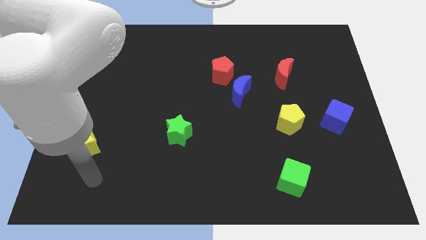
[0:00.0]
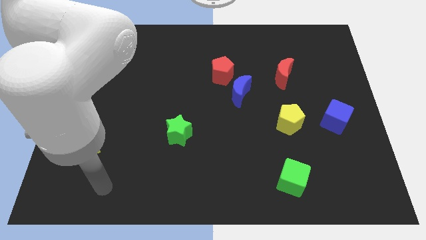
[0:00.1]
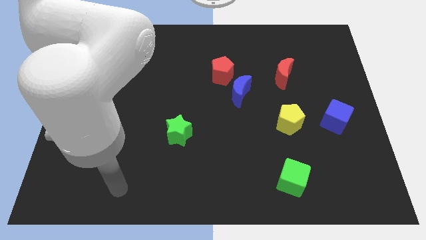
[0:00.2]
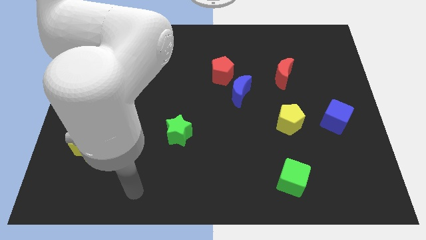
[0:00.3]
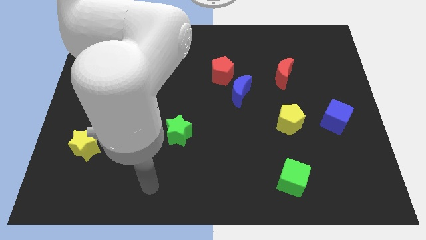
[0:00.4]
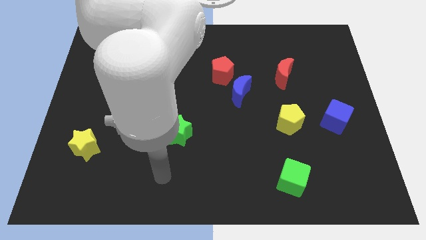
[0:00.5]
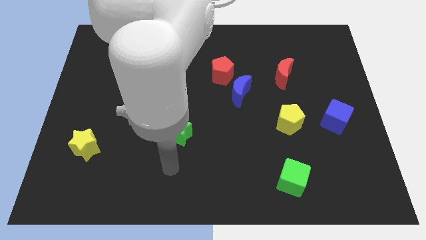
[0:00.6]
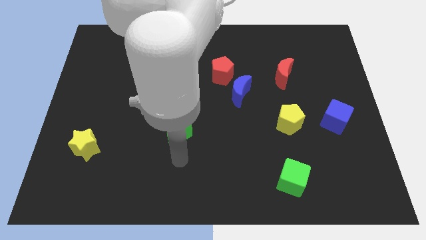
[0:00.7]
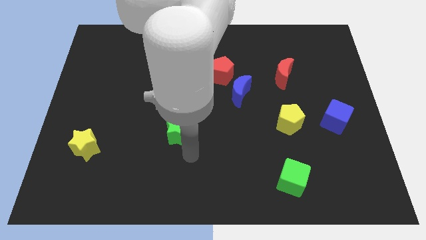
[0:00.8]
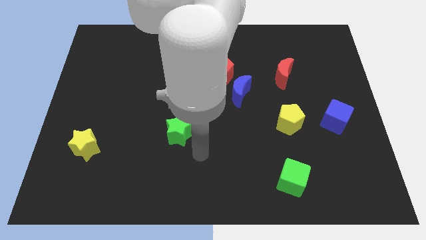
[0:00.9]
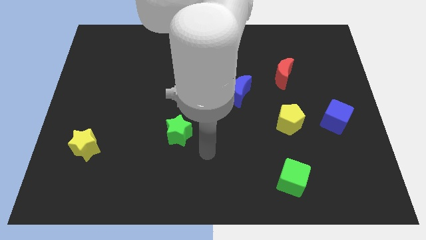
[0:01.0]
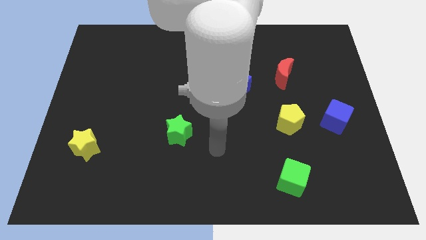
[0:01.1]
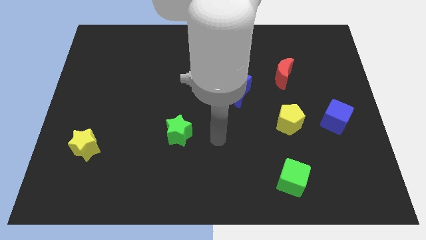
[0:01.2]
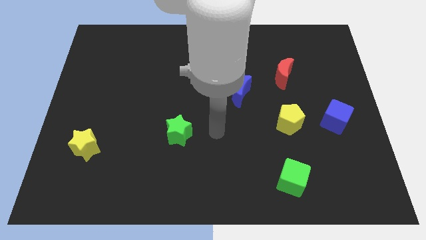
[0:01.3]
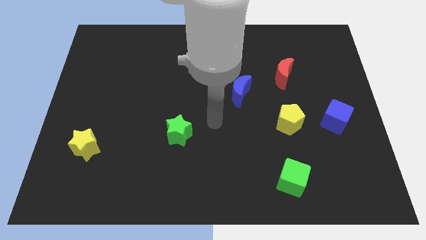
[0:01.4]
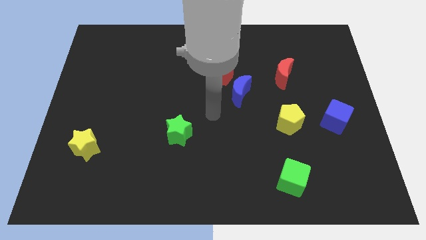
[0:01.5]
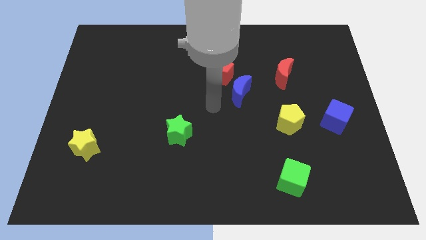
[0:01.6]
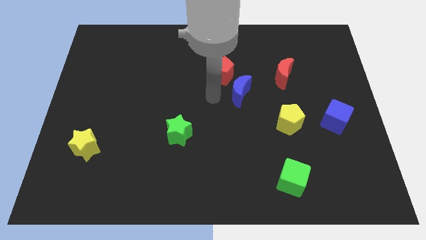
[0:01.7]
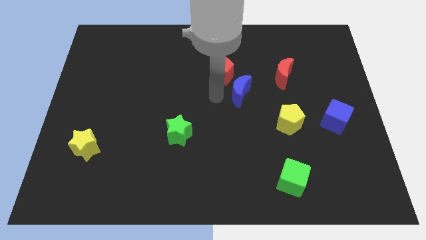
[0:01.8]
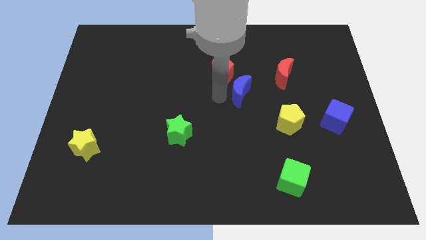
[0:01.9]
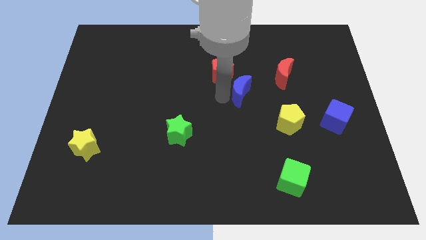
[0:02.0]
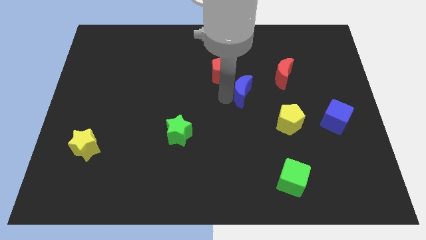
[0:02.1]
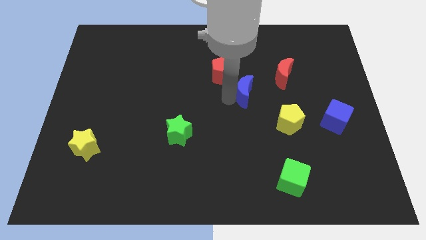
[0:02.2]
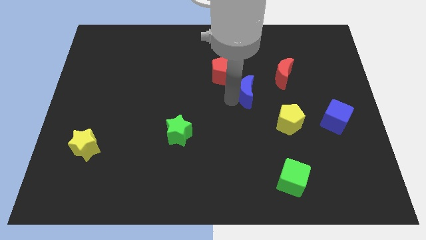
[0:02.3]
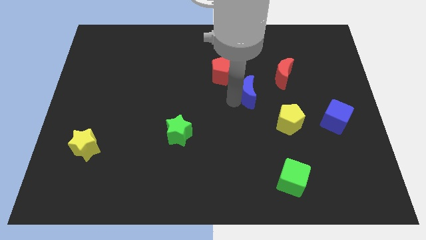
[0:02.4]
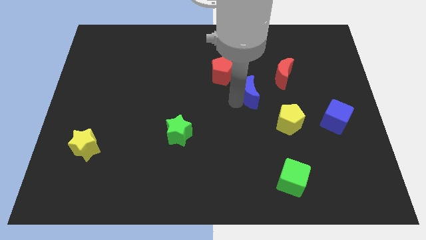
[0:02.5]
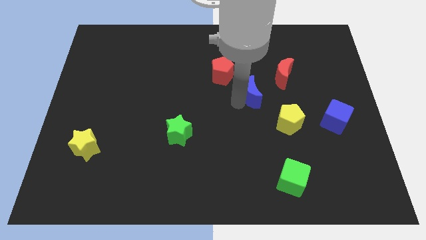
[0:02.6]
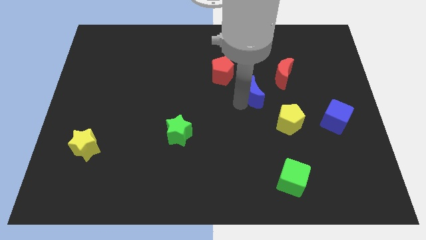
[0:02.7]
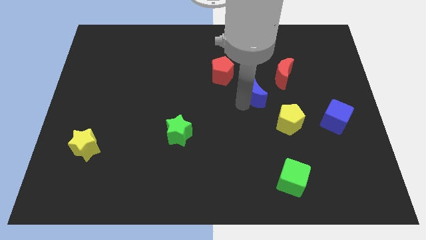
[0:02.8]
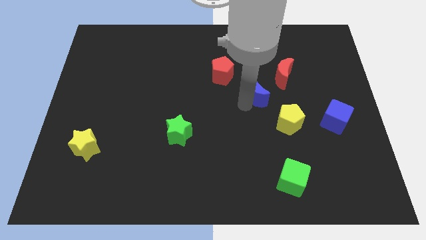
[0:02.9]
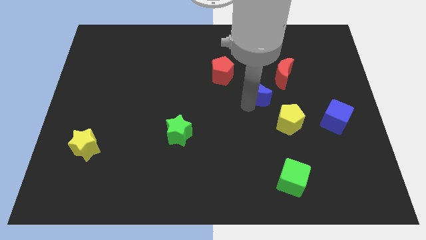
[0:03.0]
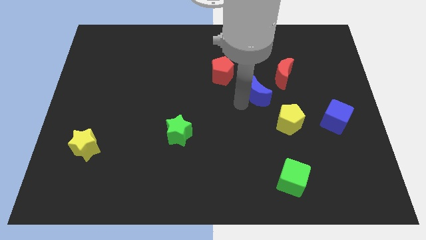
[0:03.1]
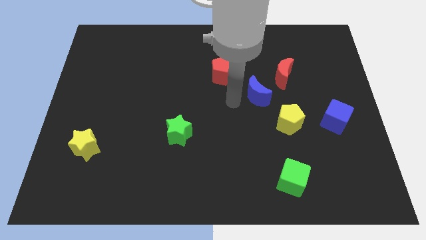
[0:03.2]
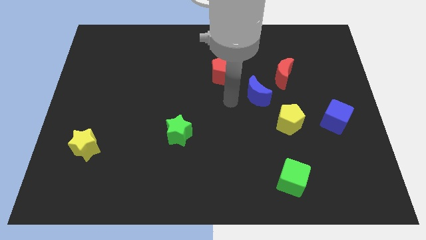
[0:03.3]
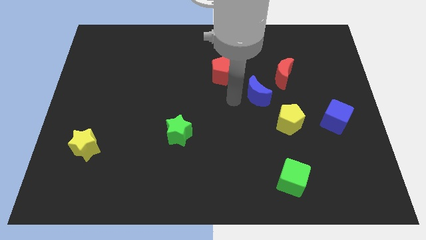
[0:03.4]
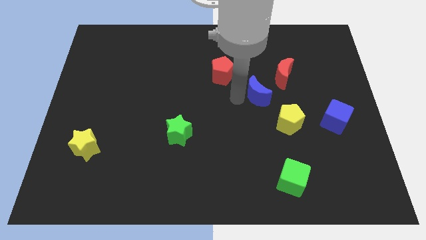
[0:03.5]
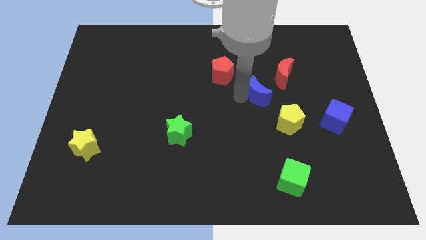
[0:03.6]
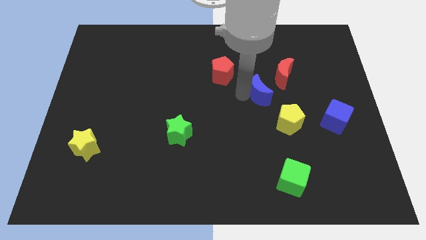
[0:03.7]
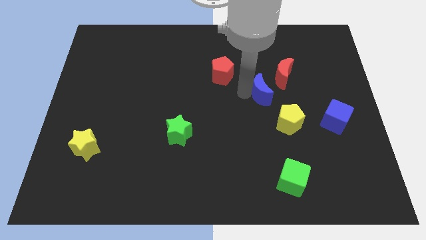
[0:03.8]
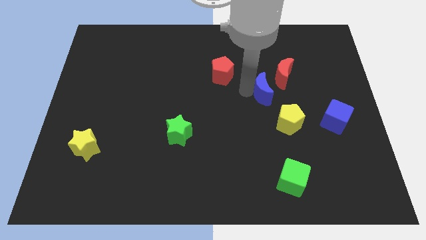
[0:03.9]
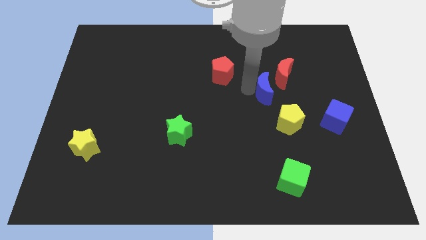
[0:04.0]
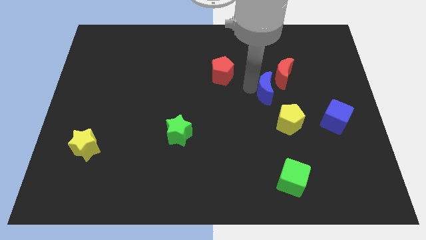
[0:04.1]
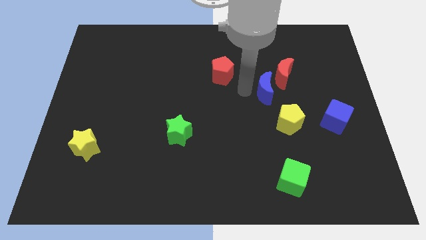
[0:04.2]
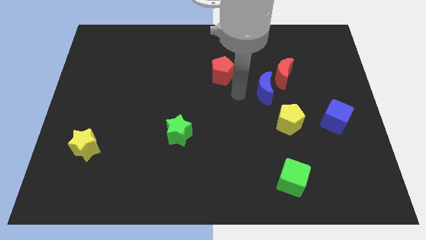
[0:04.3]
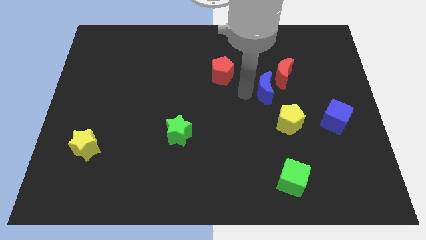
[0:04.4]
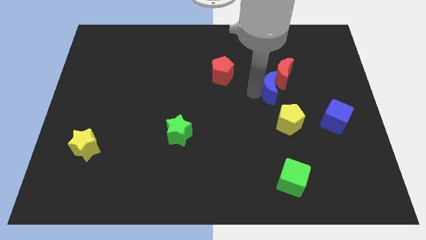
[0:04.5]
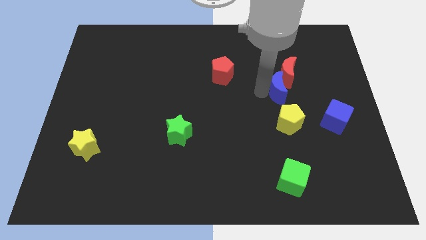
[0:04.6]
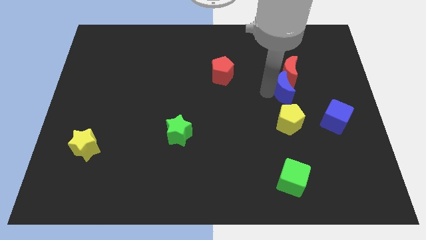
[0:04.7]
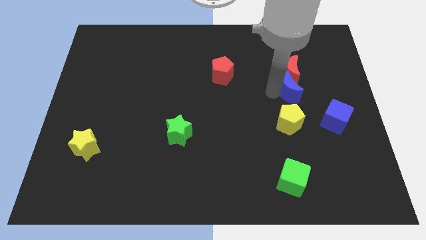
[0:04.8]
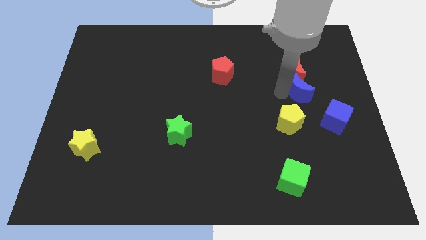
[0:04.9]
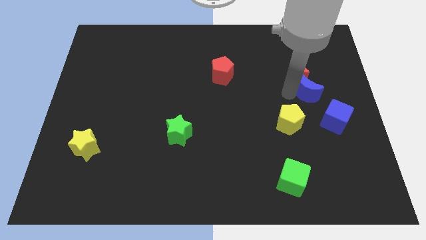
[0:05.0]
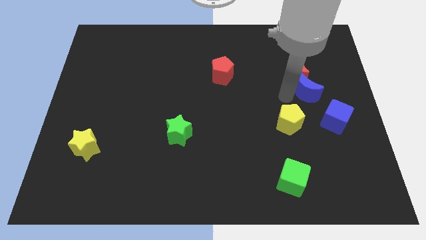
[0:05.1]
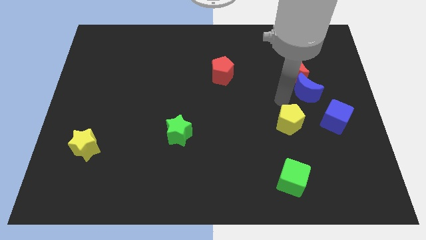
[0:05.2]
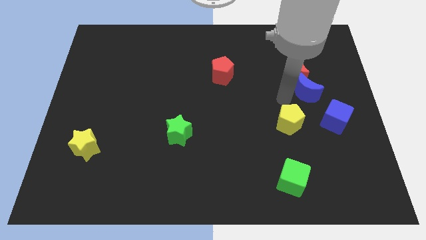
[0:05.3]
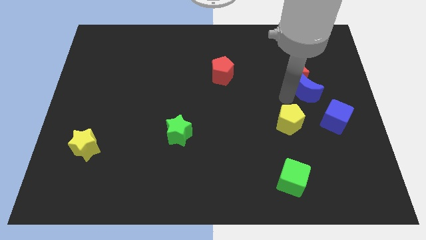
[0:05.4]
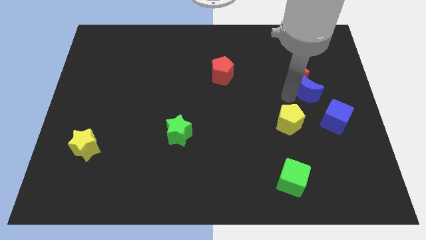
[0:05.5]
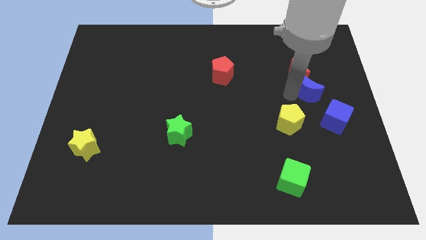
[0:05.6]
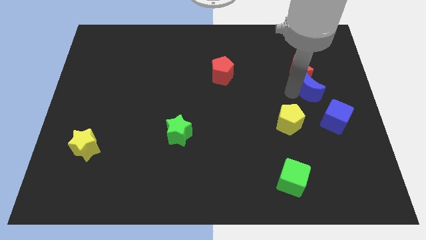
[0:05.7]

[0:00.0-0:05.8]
slide the blue moon to the top side of the blue cube

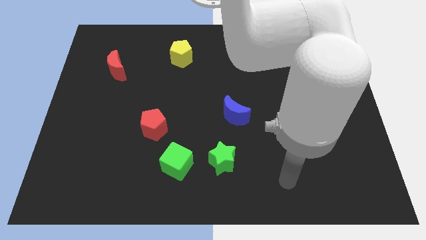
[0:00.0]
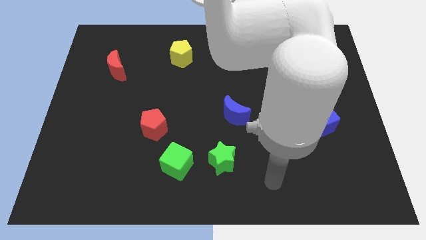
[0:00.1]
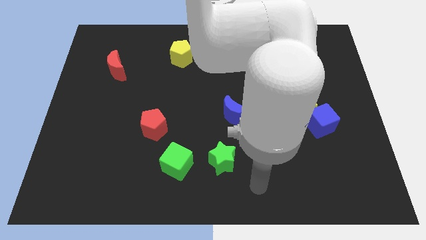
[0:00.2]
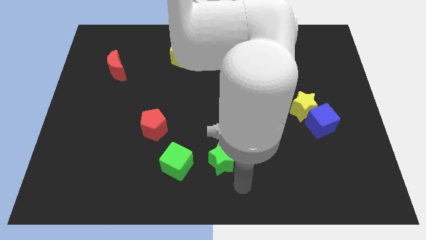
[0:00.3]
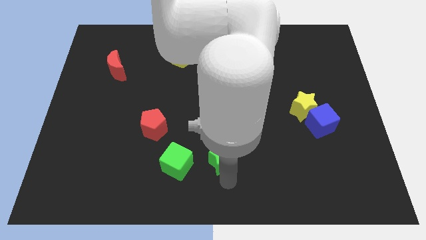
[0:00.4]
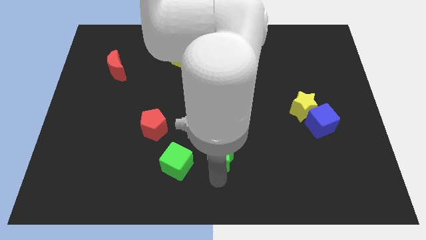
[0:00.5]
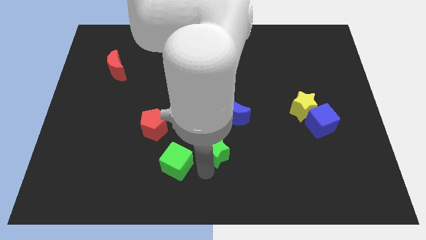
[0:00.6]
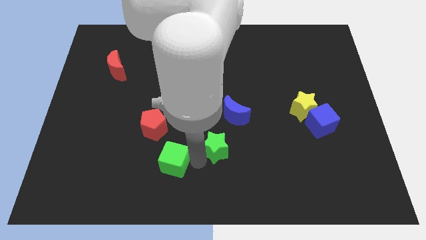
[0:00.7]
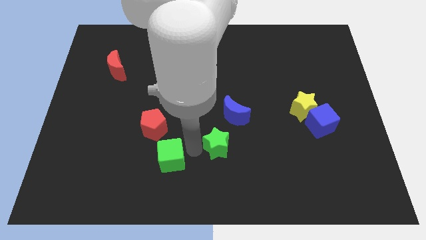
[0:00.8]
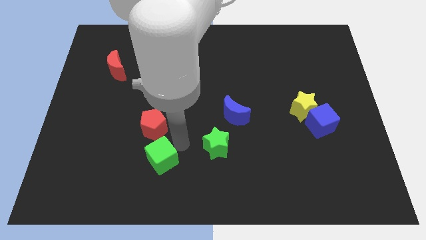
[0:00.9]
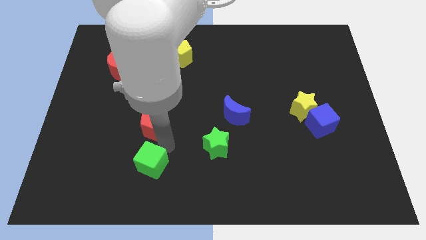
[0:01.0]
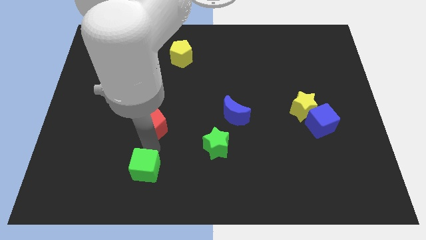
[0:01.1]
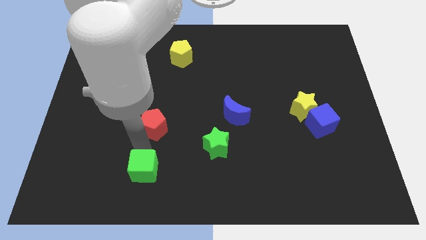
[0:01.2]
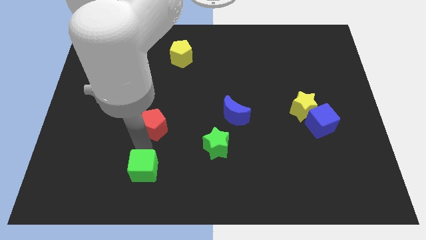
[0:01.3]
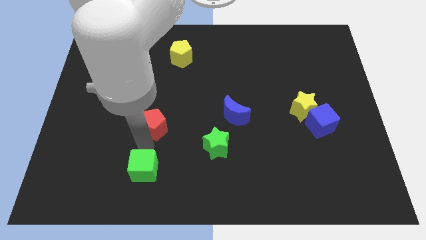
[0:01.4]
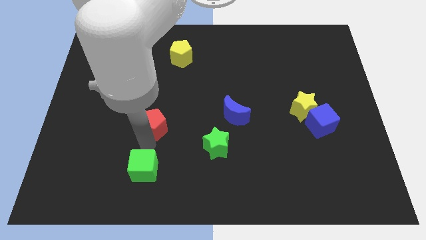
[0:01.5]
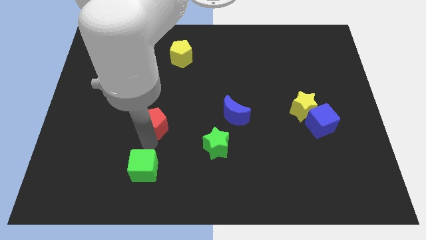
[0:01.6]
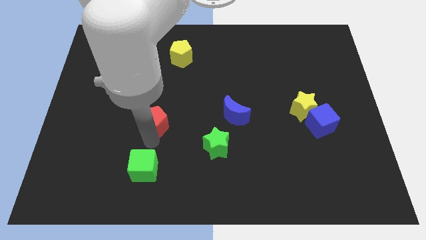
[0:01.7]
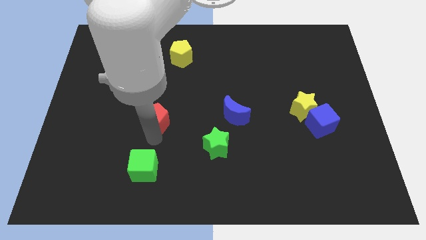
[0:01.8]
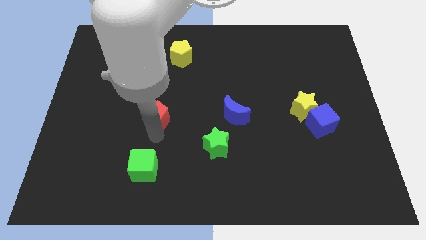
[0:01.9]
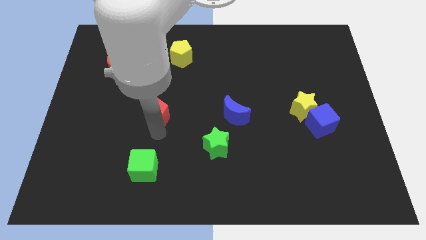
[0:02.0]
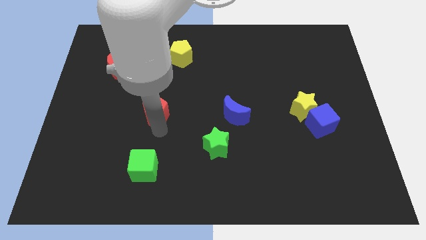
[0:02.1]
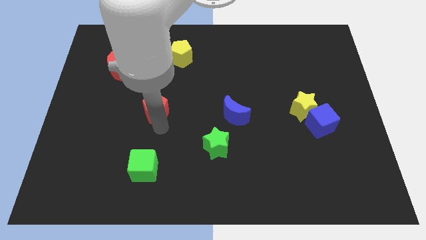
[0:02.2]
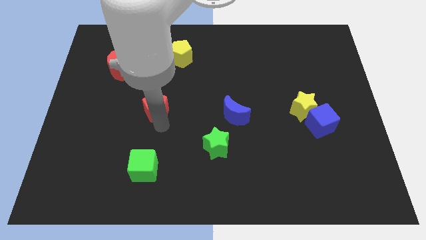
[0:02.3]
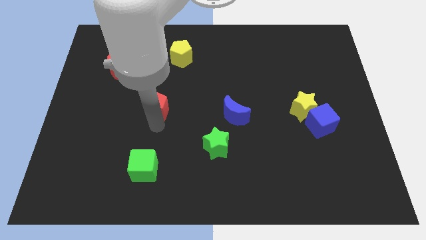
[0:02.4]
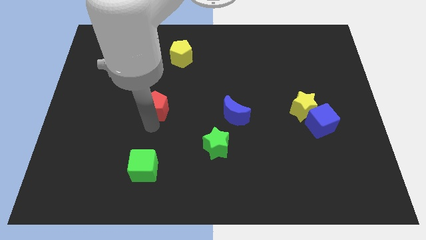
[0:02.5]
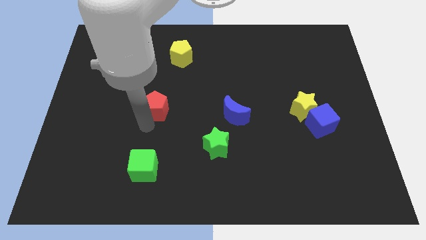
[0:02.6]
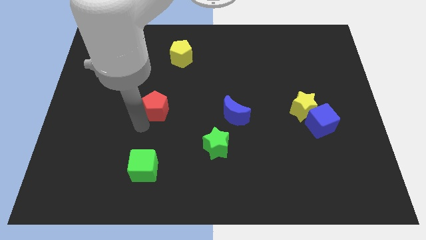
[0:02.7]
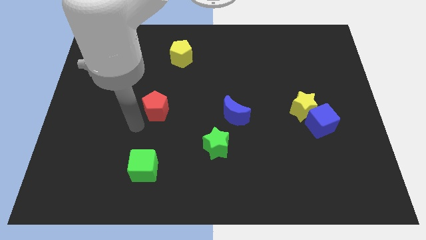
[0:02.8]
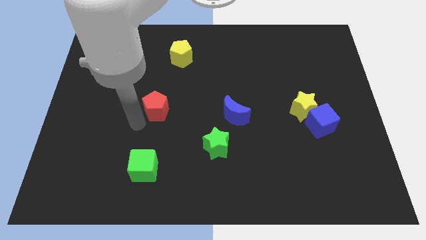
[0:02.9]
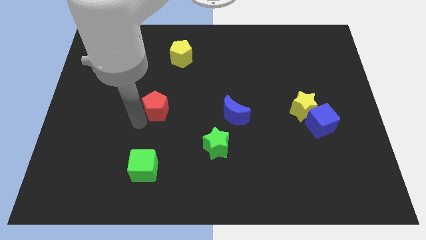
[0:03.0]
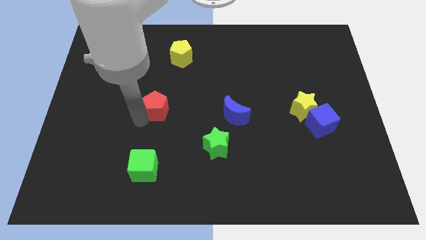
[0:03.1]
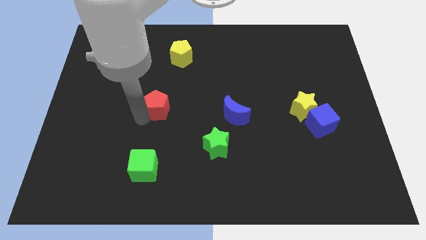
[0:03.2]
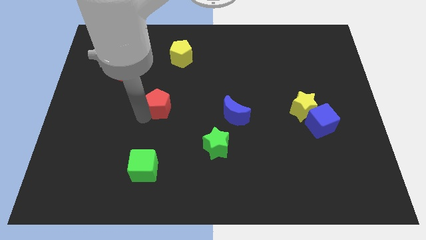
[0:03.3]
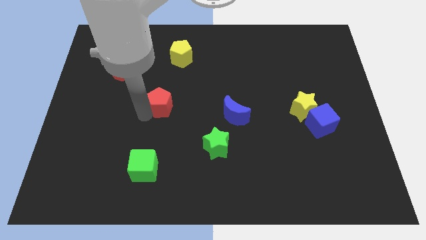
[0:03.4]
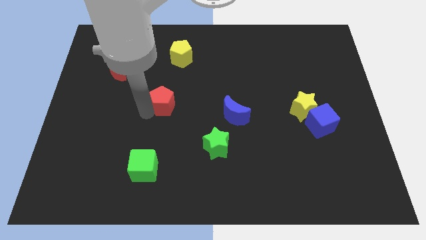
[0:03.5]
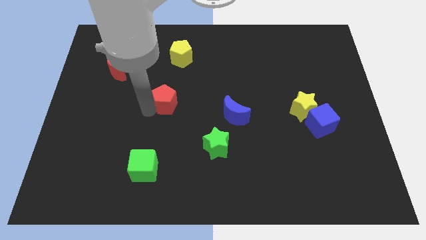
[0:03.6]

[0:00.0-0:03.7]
move the red pentagon to the bottom side of the yellow pentagon
